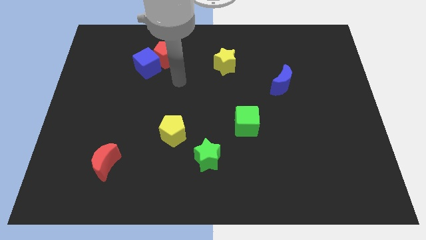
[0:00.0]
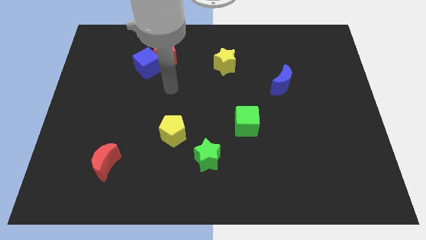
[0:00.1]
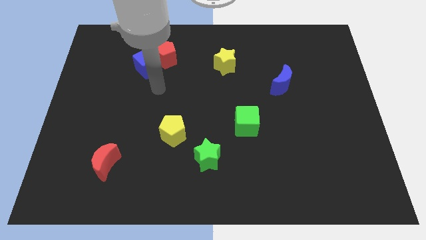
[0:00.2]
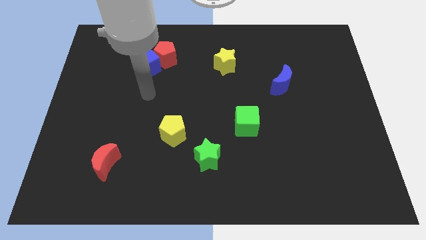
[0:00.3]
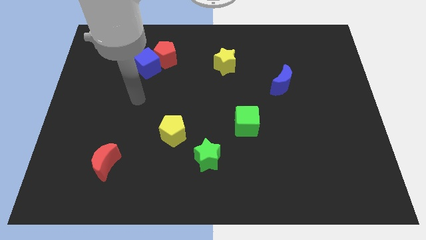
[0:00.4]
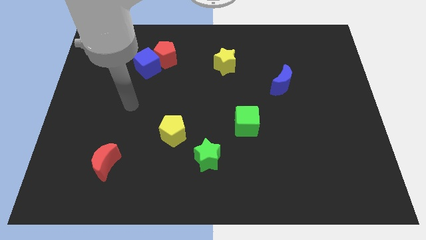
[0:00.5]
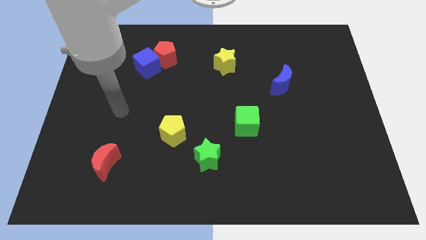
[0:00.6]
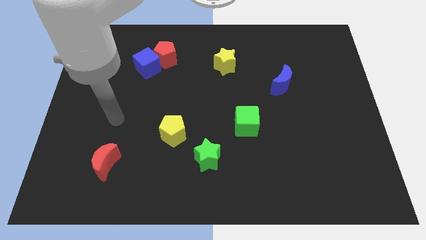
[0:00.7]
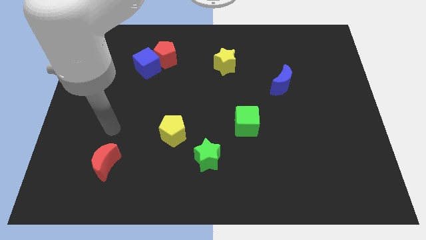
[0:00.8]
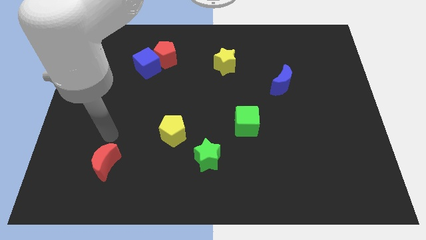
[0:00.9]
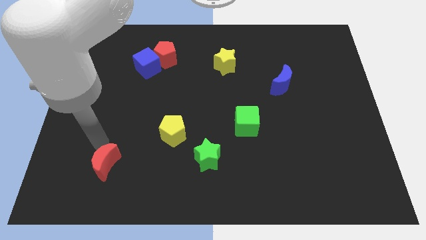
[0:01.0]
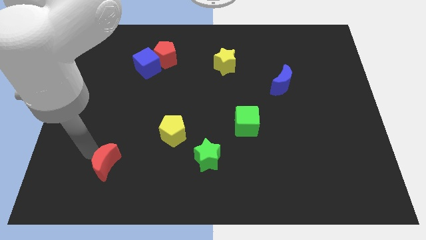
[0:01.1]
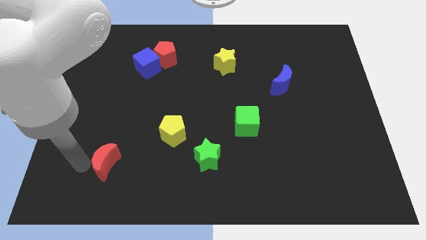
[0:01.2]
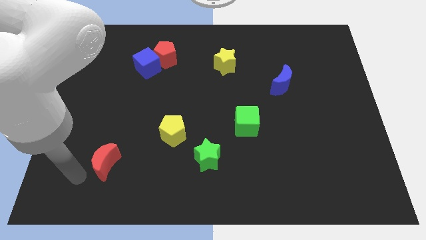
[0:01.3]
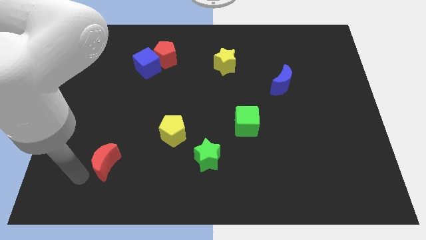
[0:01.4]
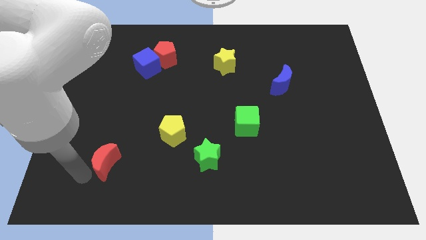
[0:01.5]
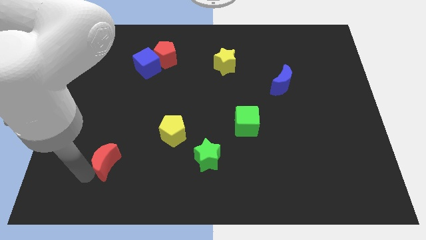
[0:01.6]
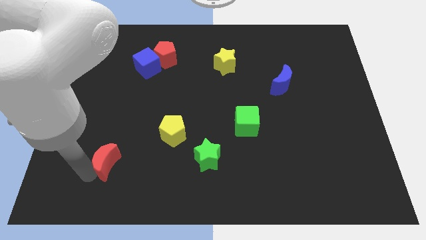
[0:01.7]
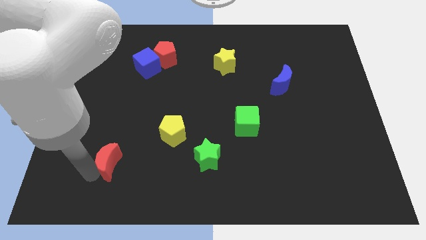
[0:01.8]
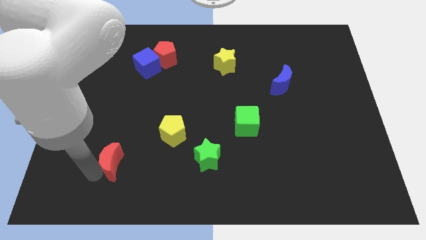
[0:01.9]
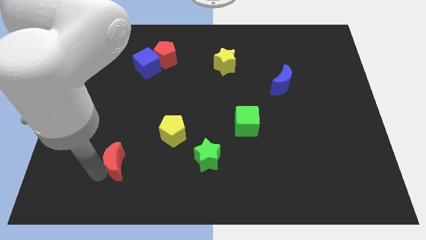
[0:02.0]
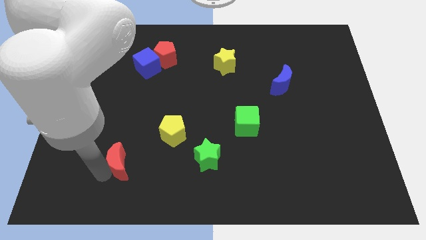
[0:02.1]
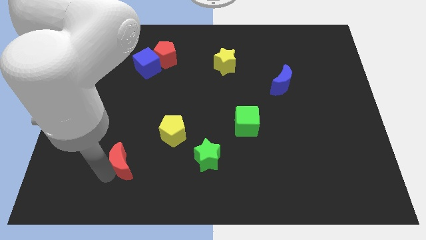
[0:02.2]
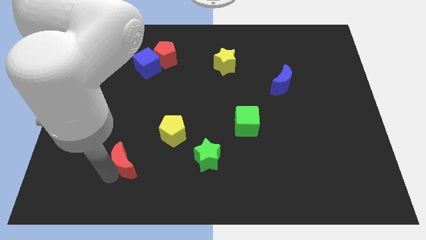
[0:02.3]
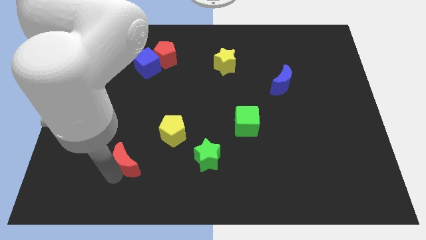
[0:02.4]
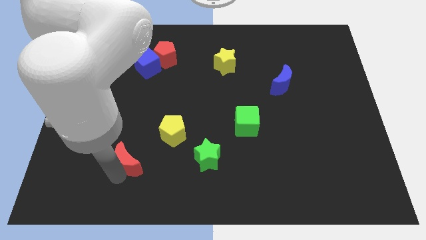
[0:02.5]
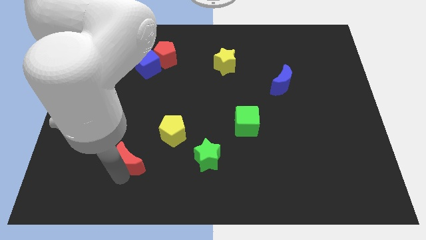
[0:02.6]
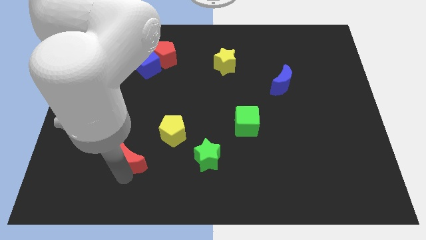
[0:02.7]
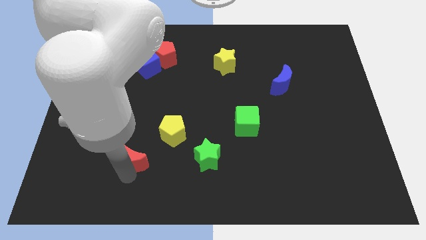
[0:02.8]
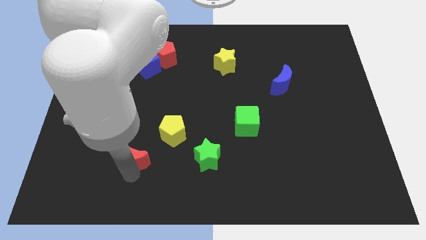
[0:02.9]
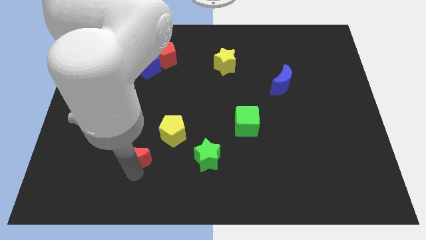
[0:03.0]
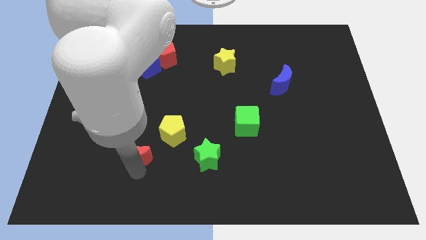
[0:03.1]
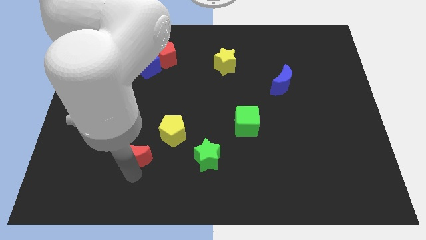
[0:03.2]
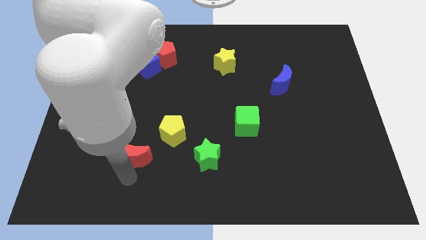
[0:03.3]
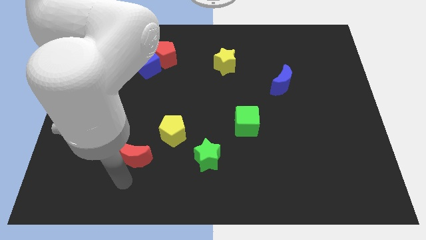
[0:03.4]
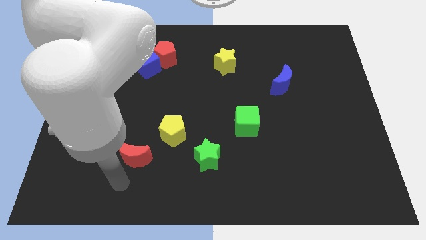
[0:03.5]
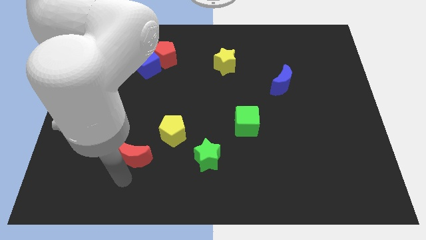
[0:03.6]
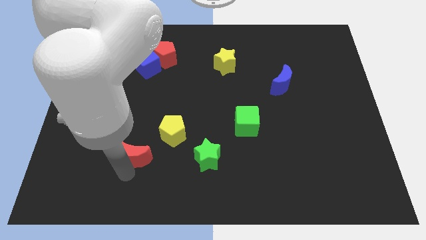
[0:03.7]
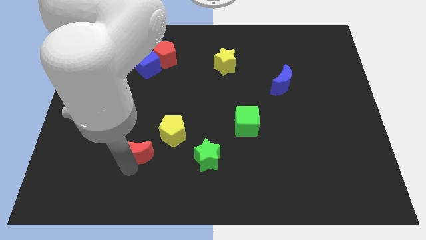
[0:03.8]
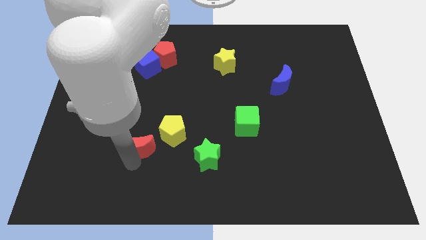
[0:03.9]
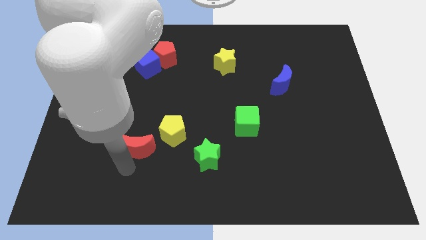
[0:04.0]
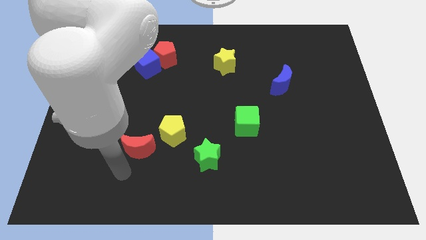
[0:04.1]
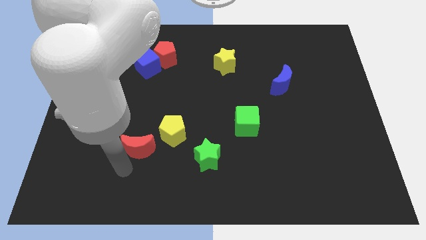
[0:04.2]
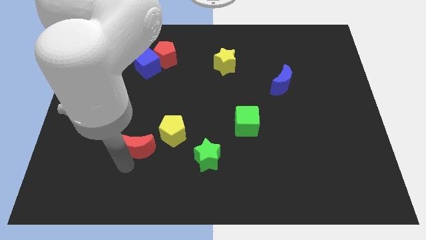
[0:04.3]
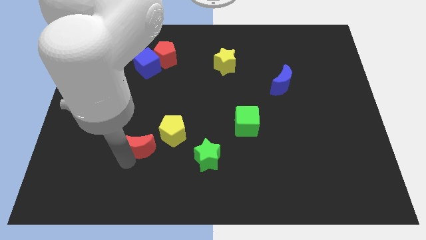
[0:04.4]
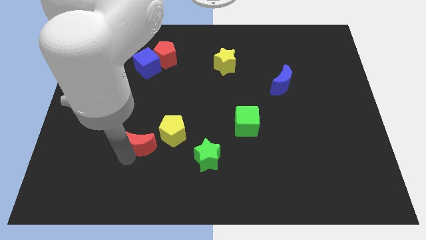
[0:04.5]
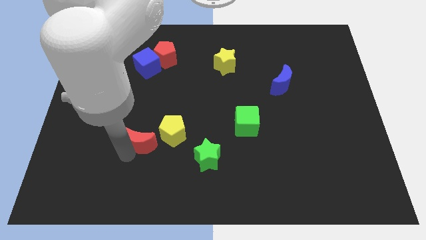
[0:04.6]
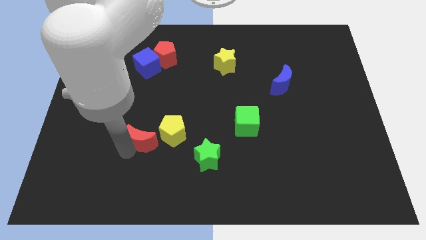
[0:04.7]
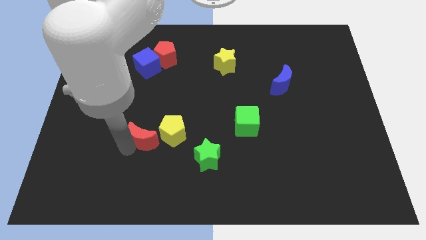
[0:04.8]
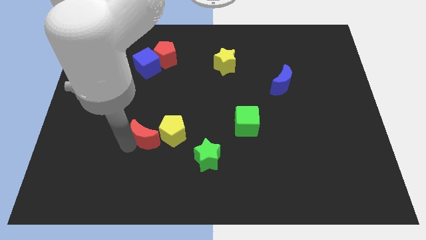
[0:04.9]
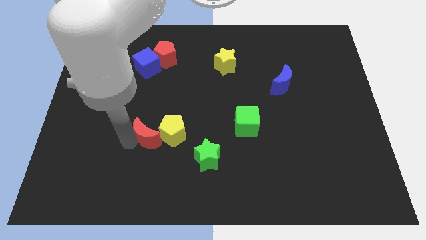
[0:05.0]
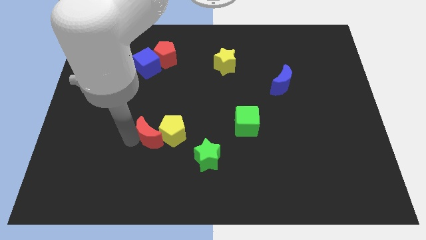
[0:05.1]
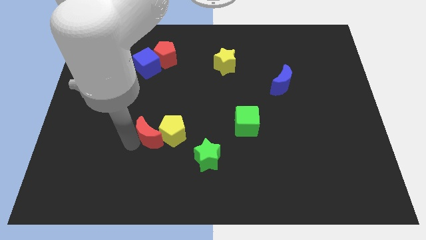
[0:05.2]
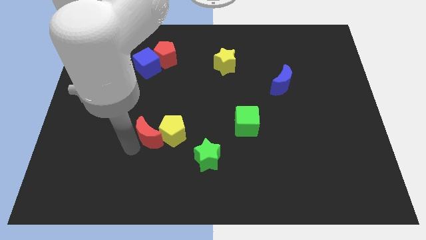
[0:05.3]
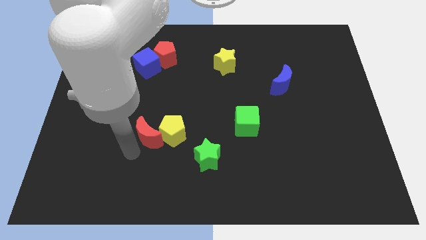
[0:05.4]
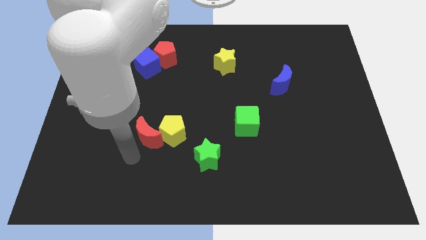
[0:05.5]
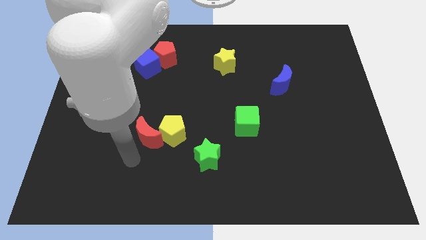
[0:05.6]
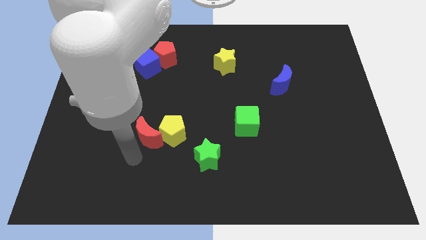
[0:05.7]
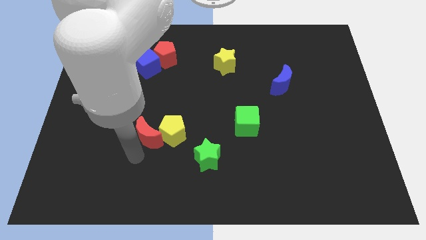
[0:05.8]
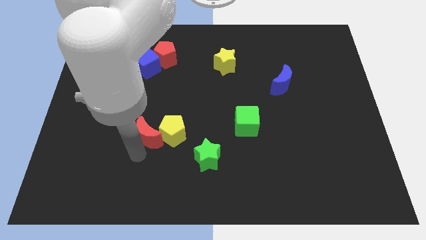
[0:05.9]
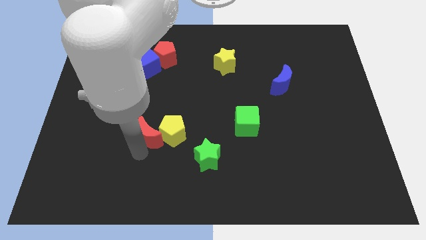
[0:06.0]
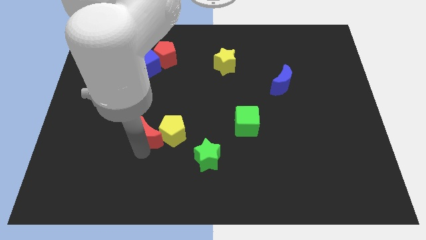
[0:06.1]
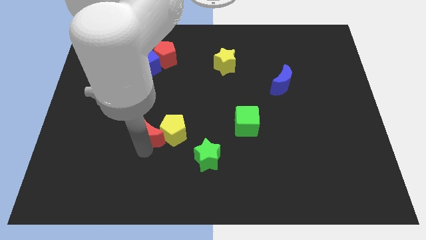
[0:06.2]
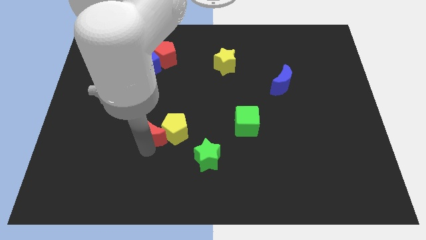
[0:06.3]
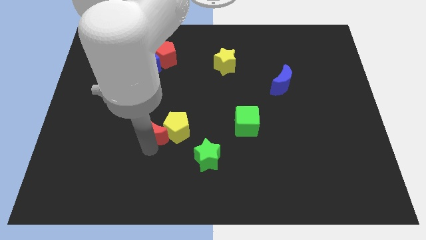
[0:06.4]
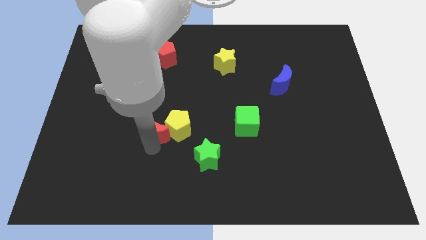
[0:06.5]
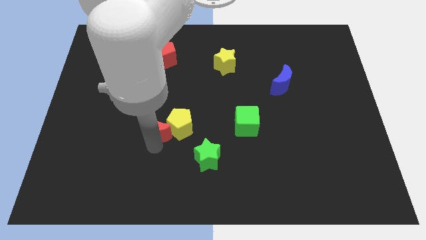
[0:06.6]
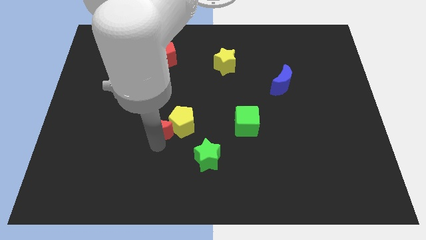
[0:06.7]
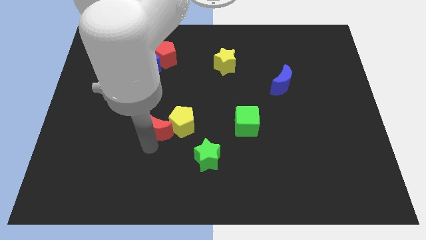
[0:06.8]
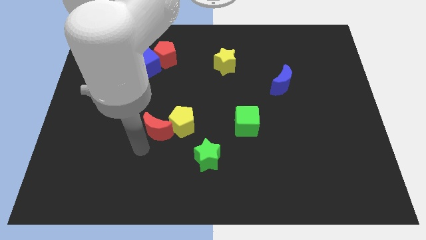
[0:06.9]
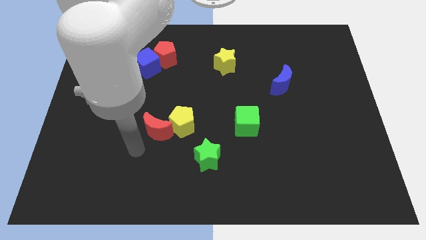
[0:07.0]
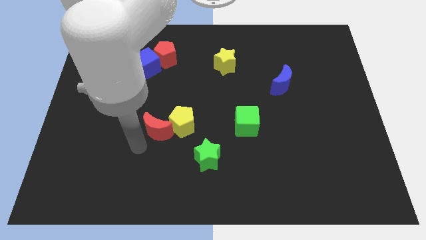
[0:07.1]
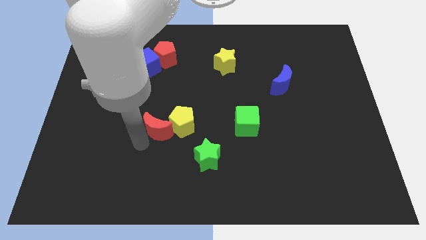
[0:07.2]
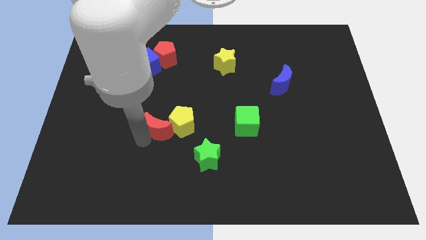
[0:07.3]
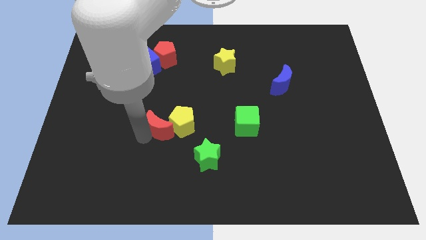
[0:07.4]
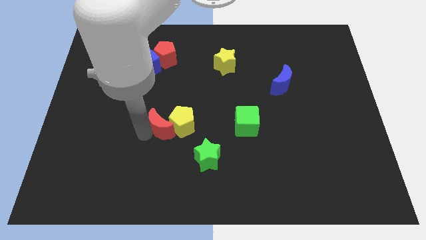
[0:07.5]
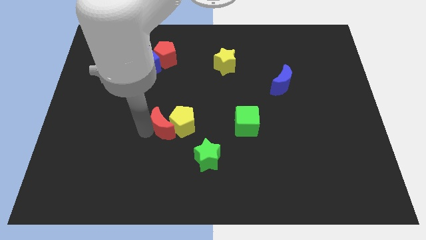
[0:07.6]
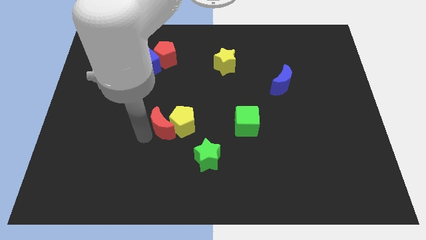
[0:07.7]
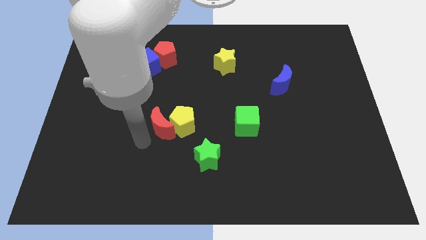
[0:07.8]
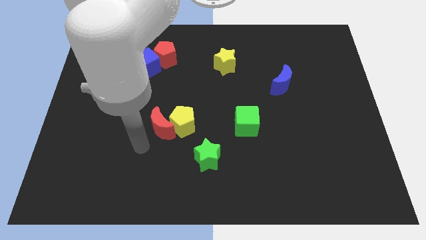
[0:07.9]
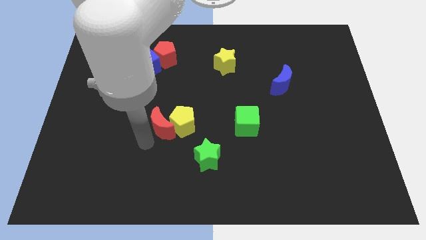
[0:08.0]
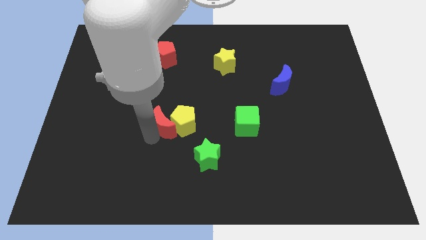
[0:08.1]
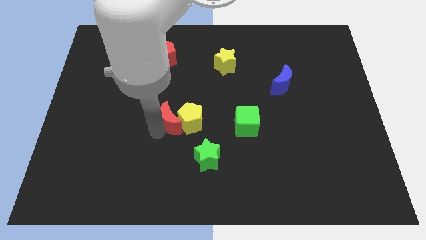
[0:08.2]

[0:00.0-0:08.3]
slide the red moon to the middle
